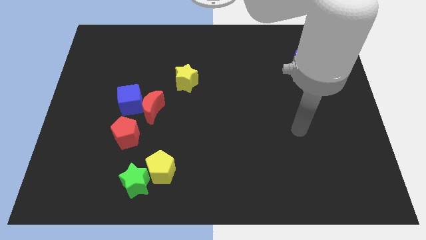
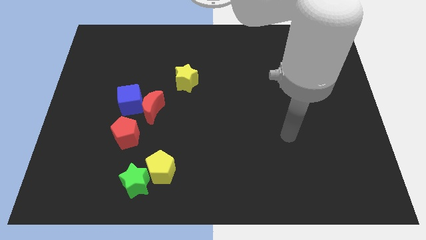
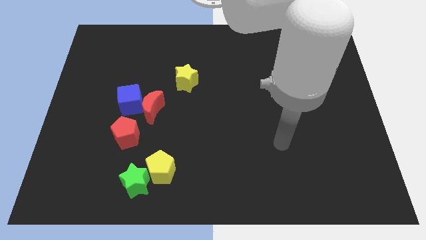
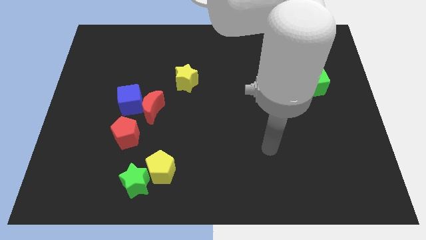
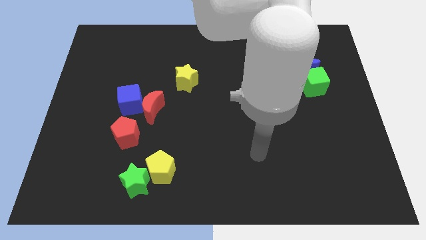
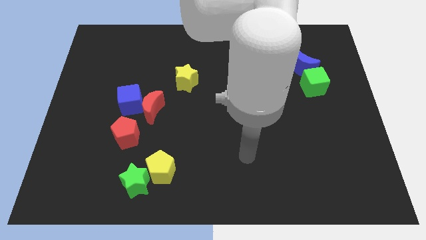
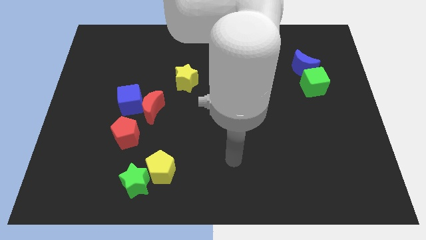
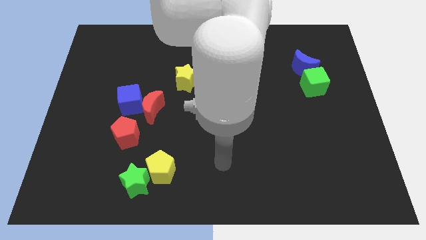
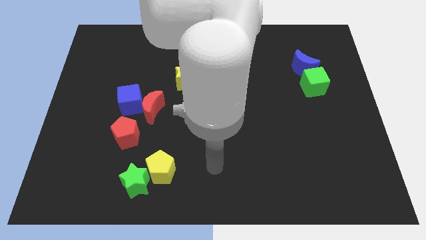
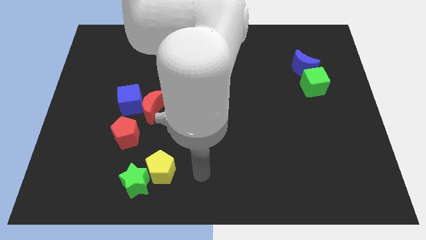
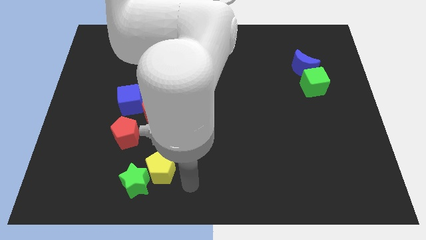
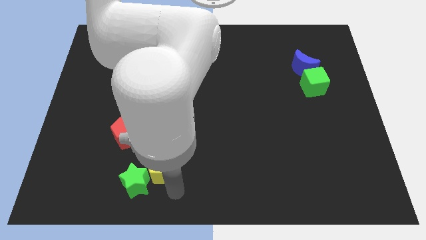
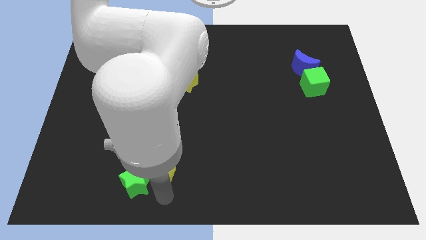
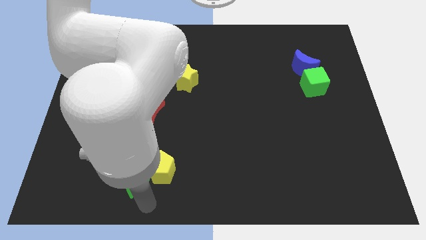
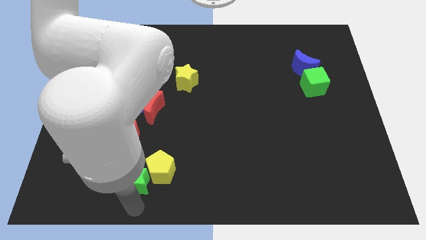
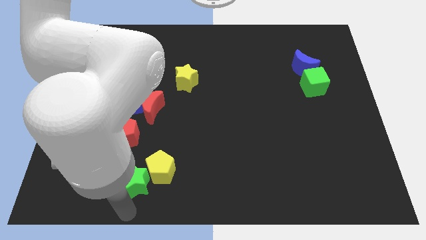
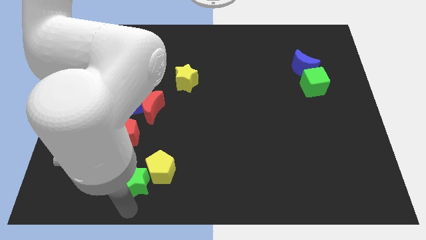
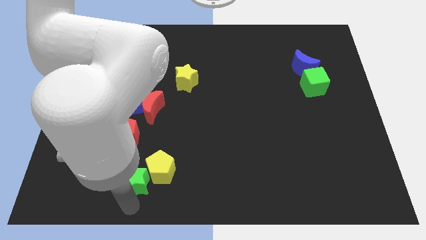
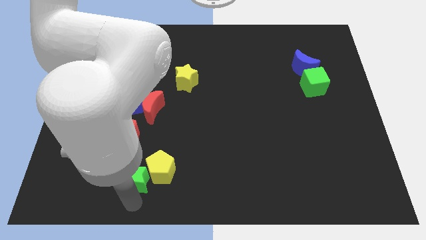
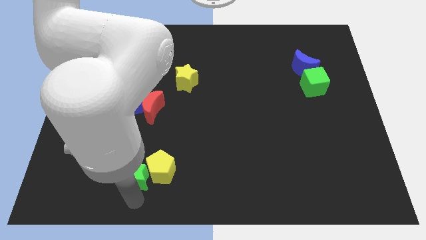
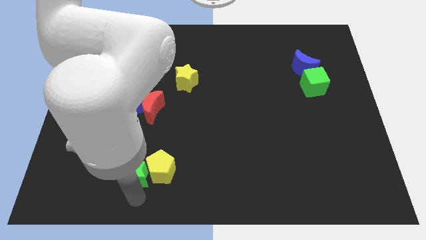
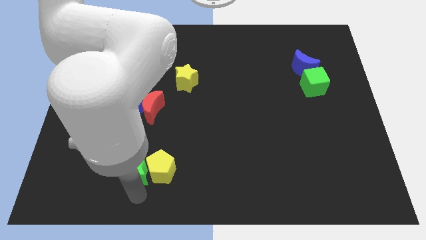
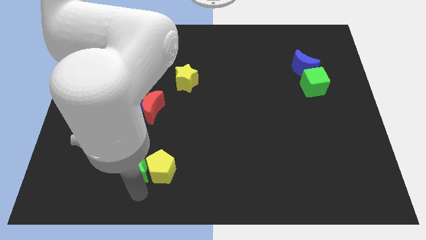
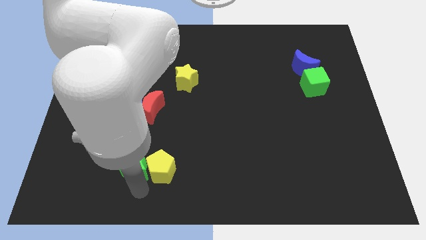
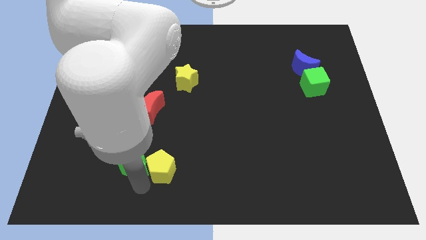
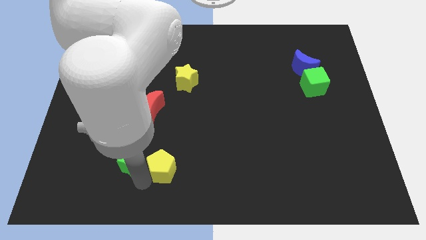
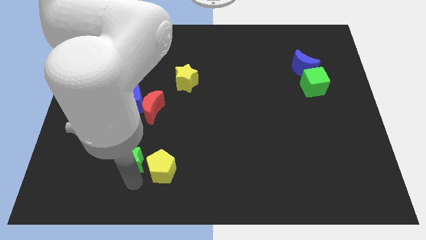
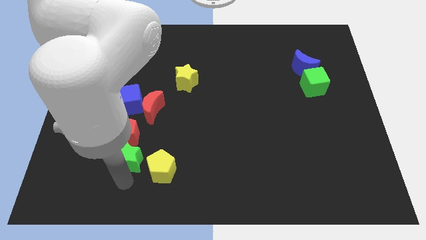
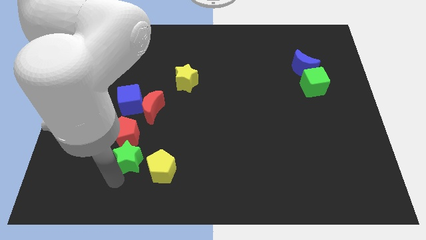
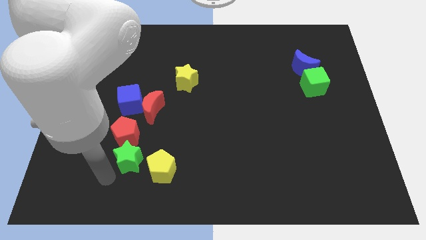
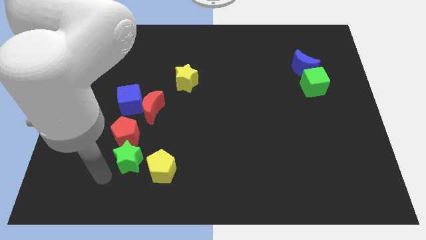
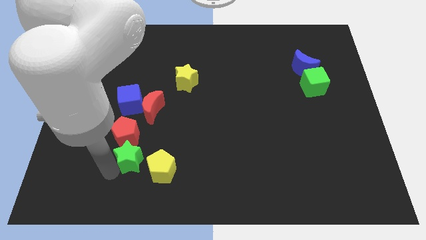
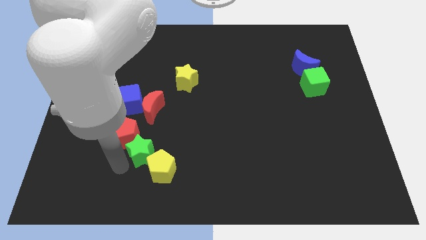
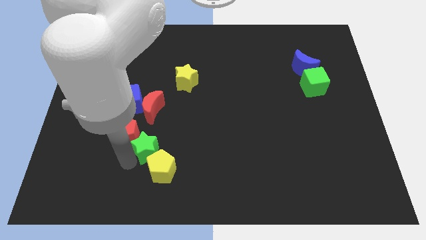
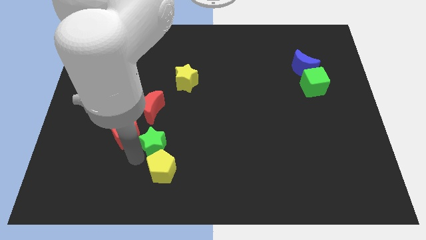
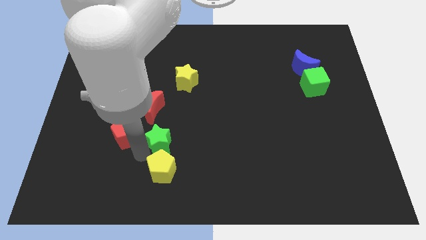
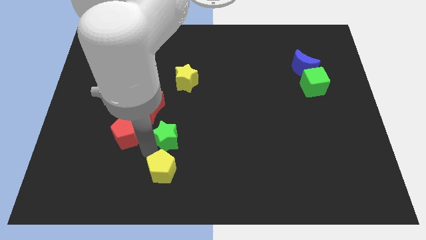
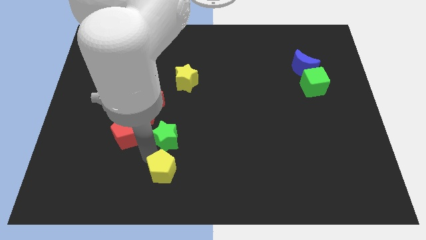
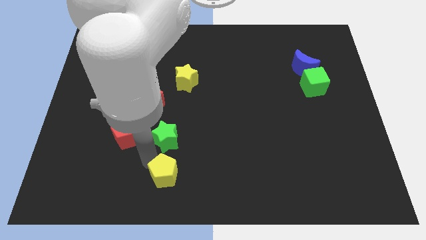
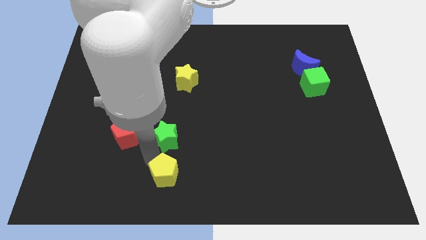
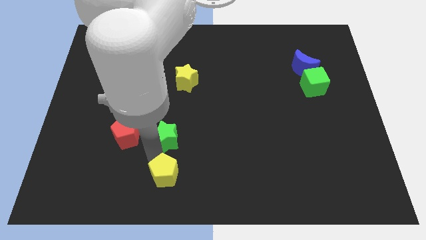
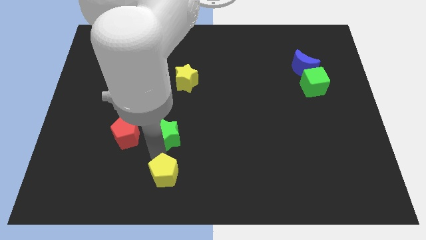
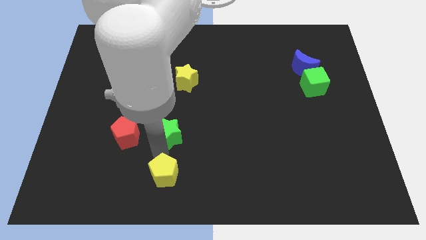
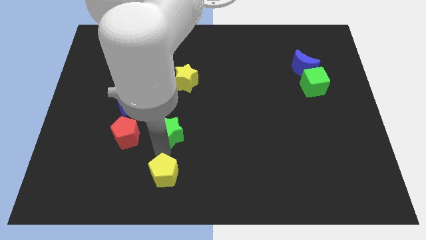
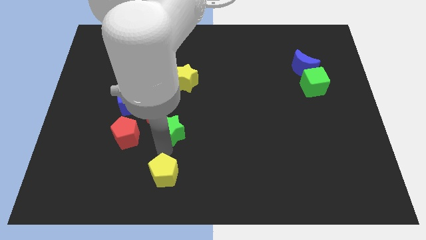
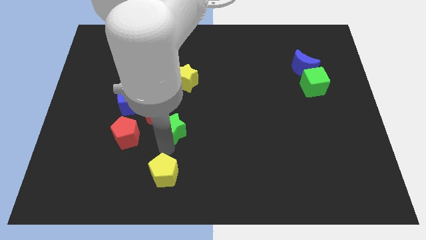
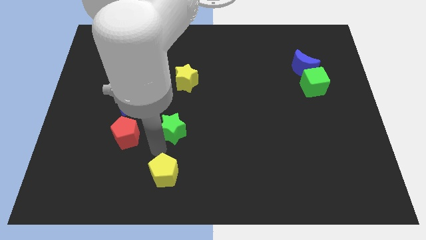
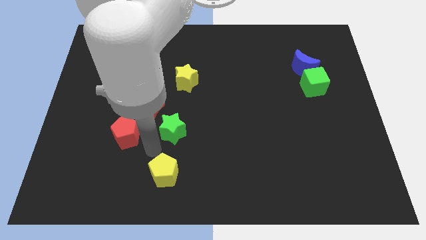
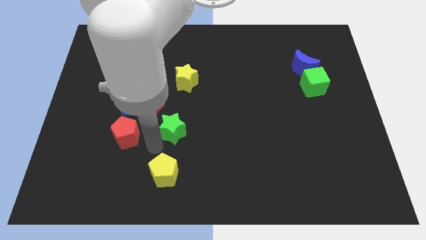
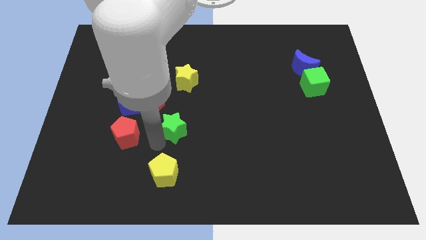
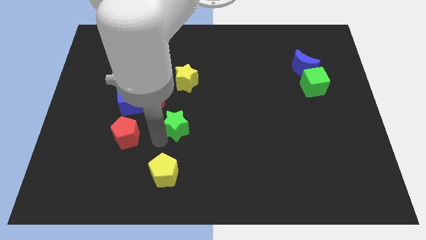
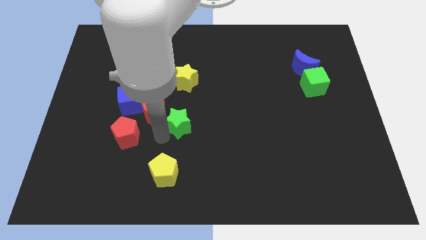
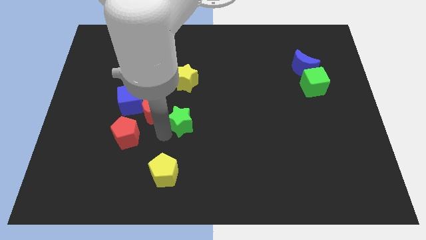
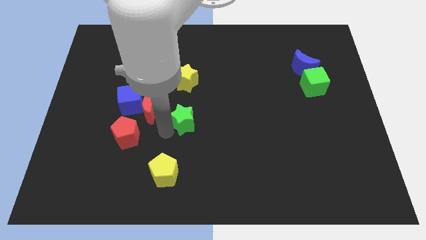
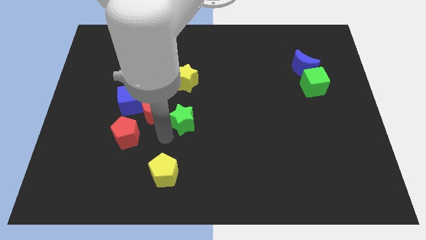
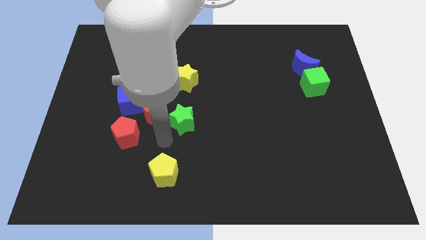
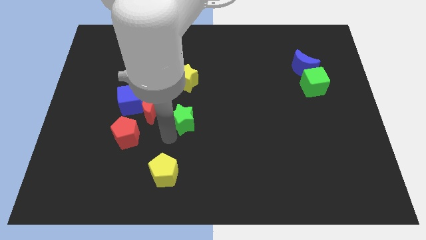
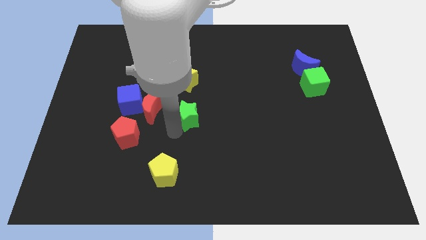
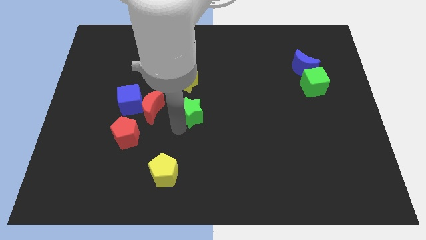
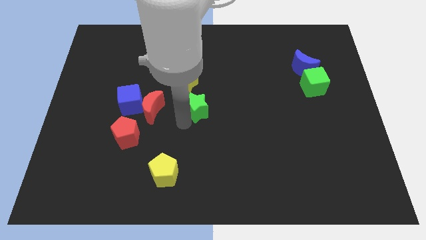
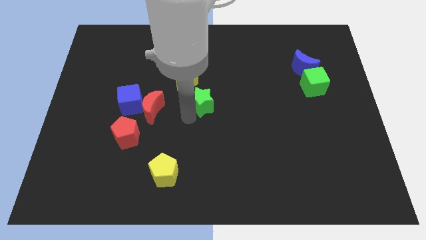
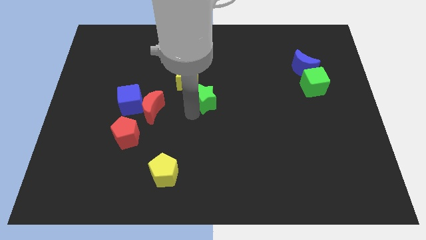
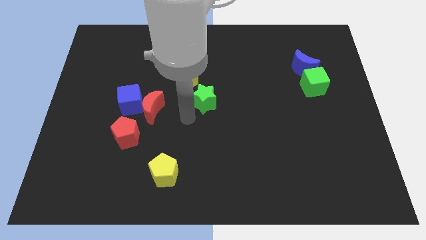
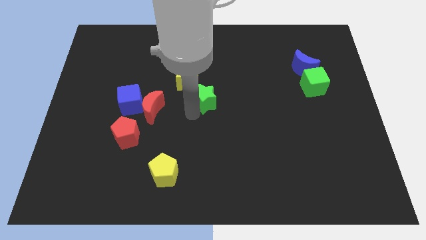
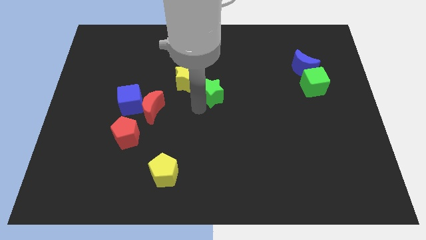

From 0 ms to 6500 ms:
put the green star to the right of the yellow star
